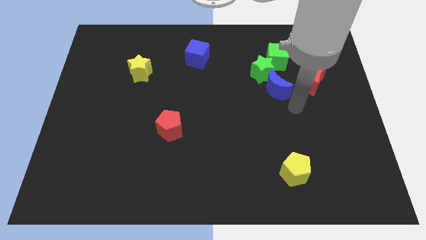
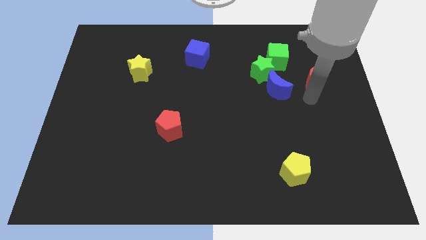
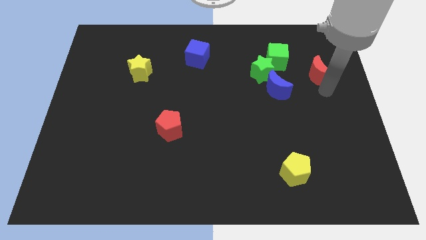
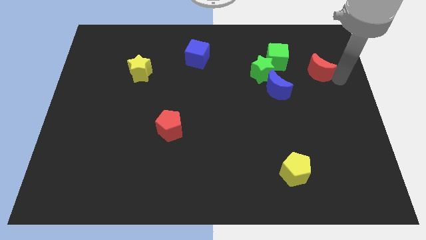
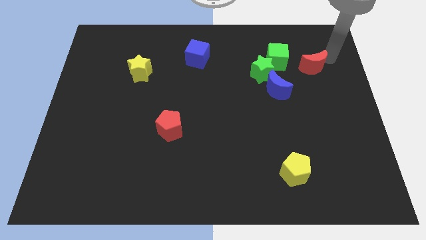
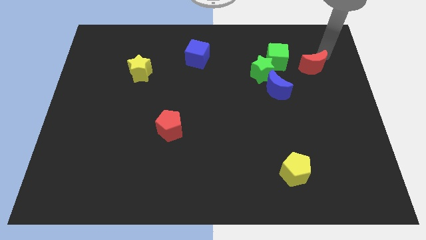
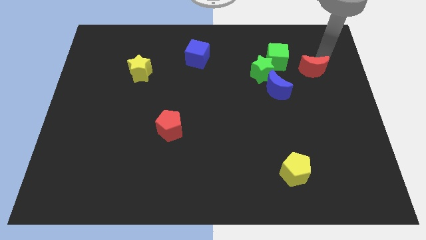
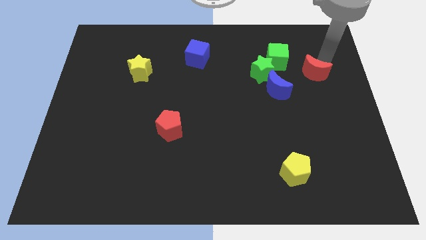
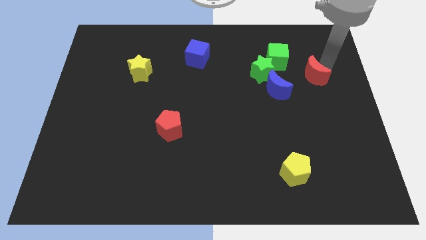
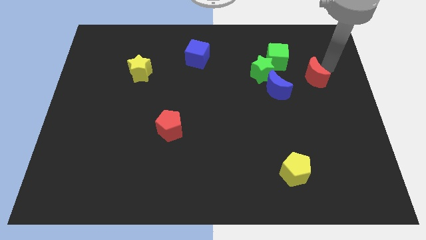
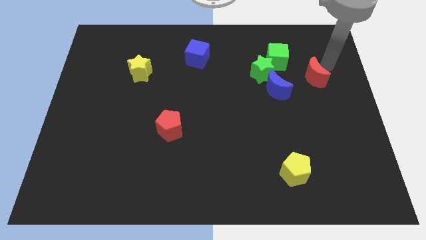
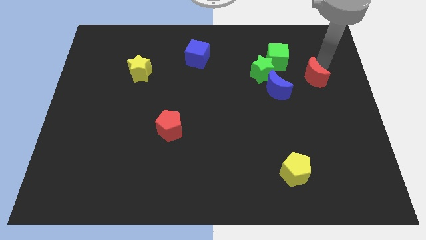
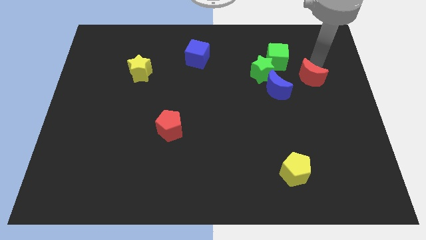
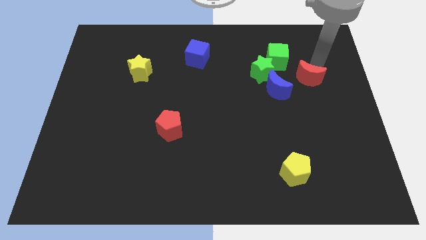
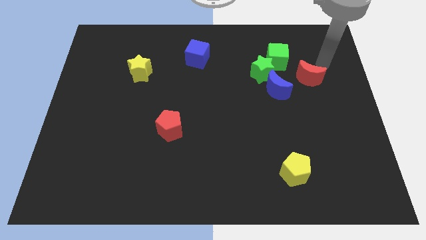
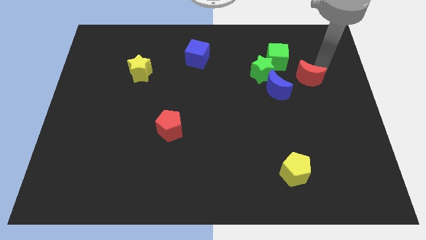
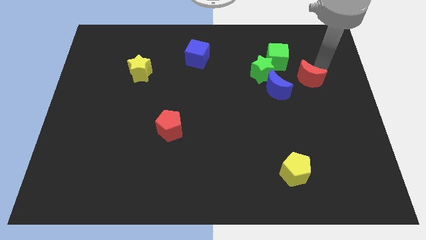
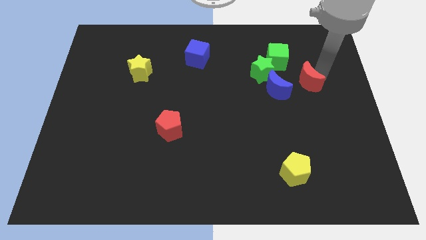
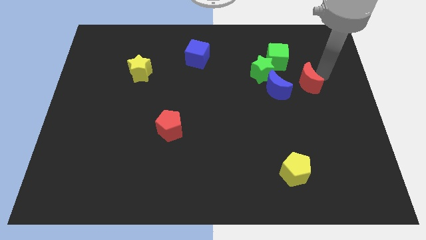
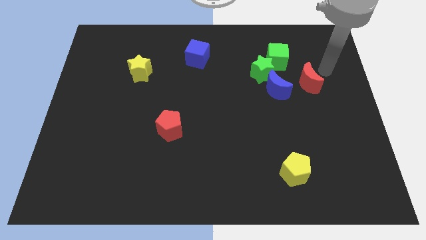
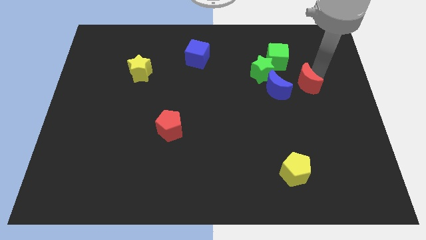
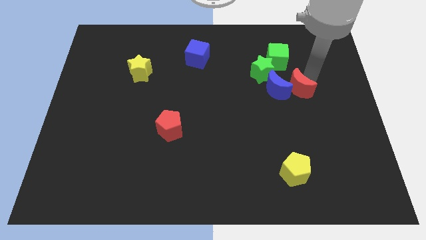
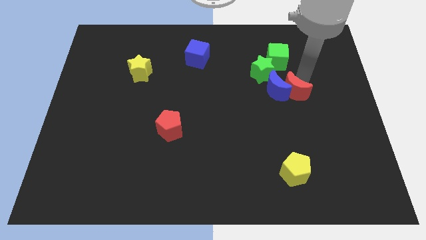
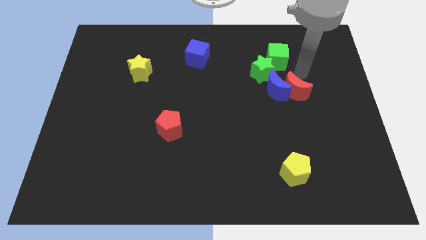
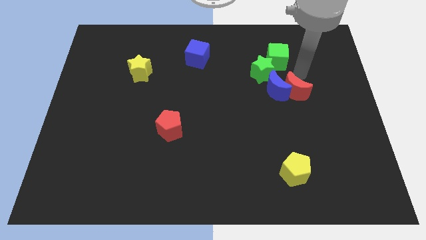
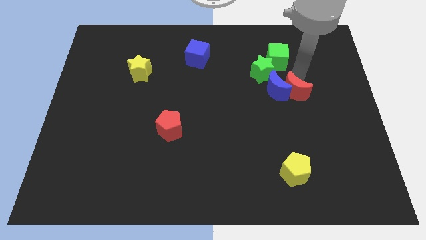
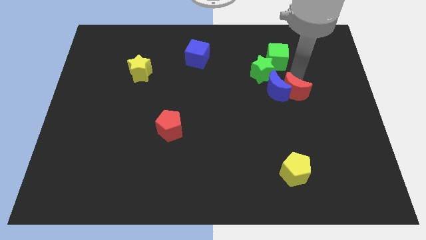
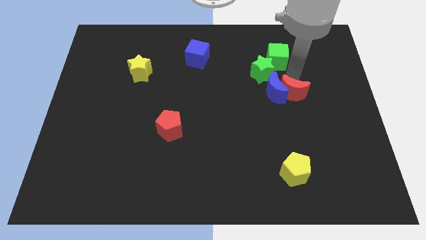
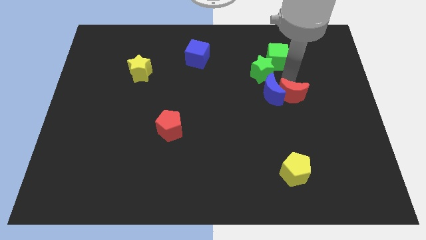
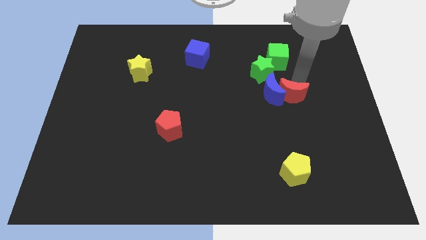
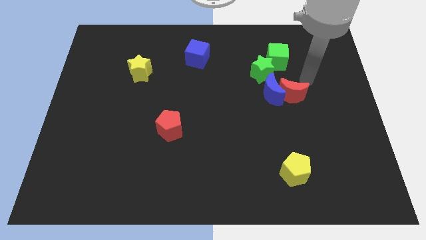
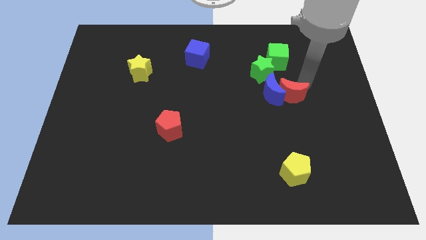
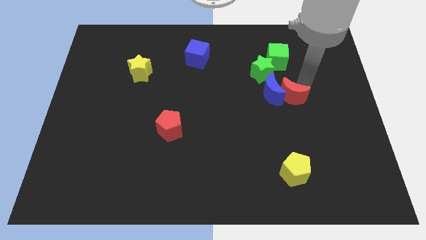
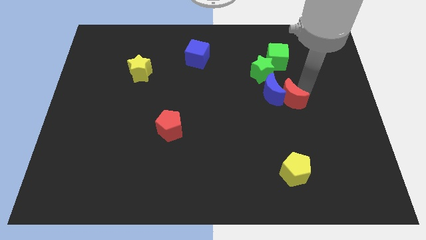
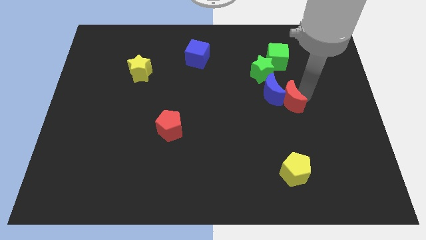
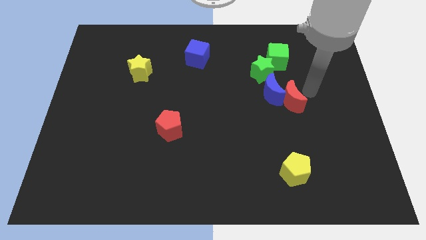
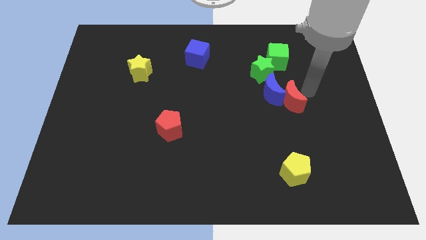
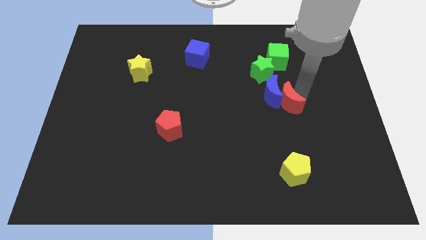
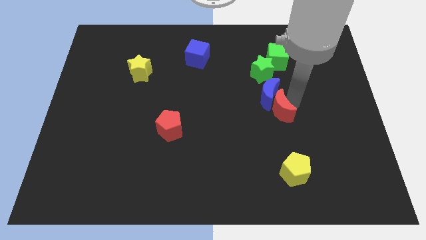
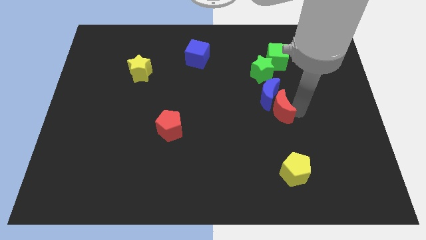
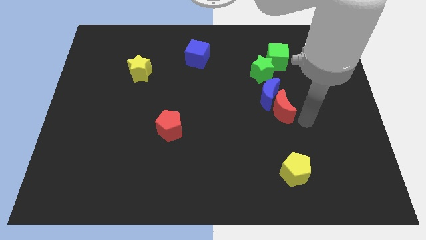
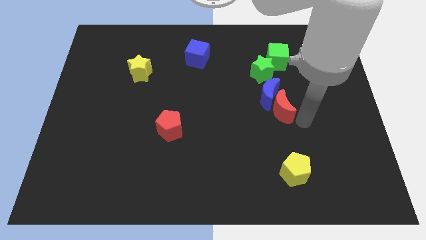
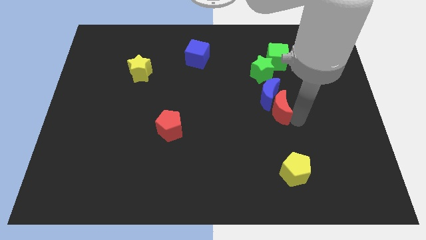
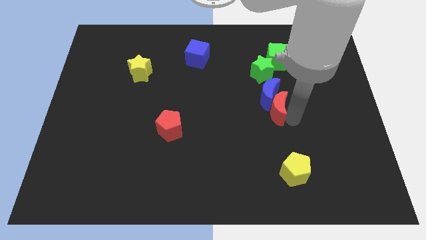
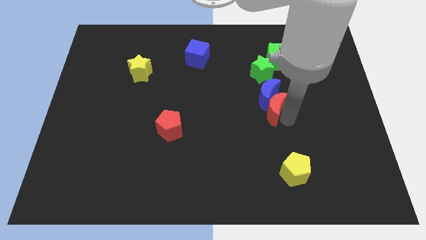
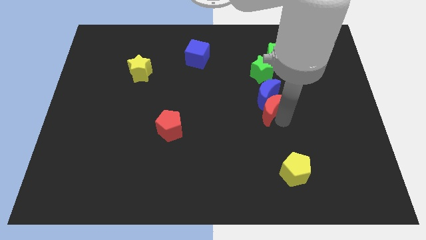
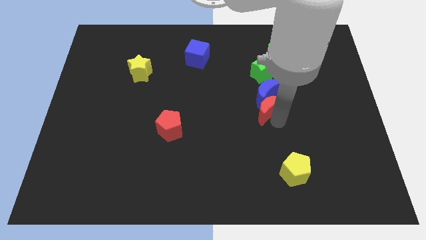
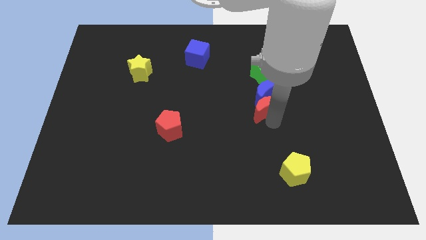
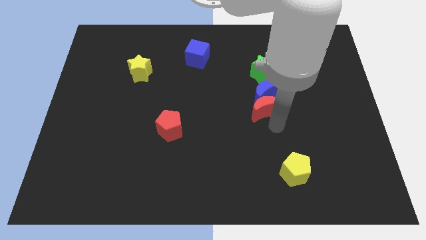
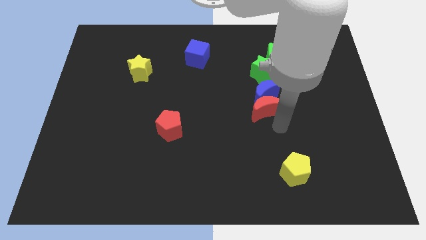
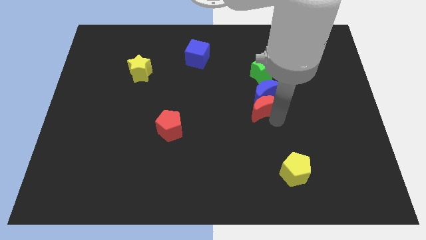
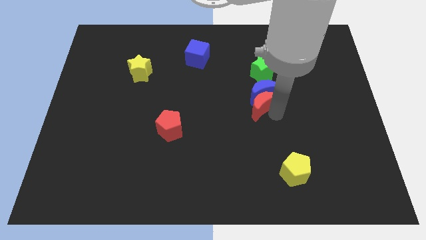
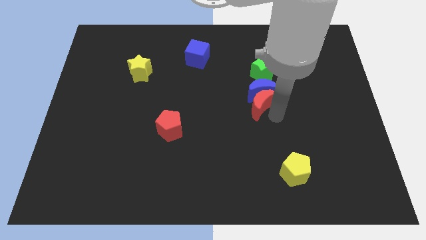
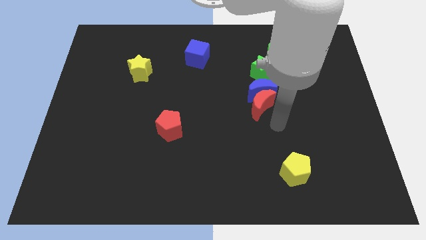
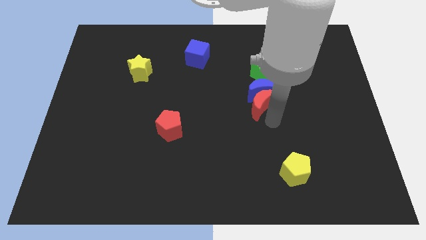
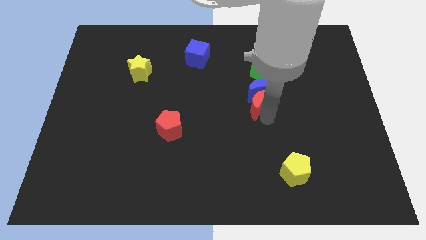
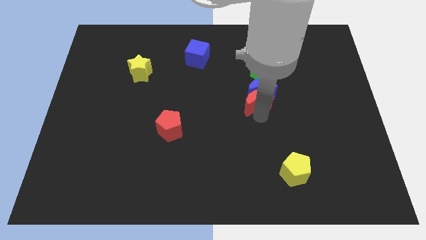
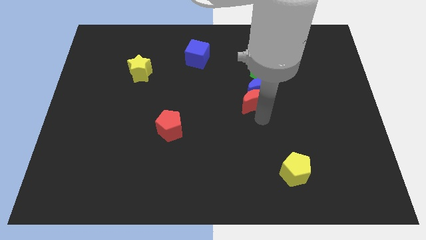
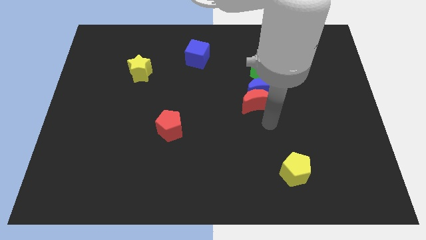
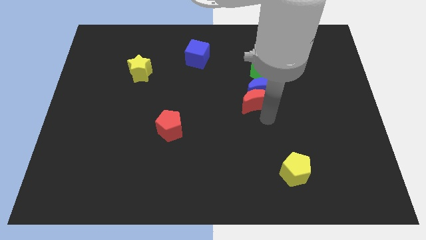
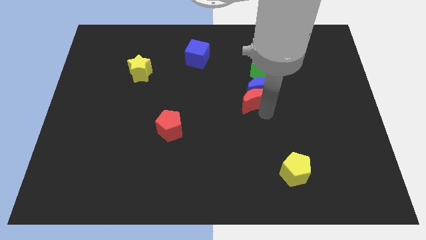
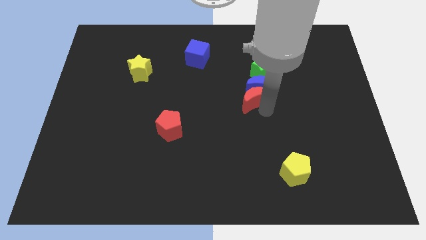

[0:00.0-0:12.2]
push the red moon to the bottom left of the green star
